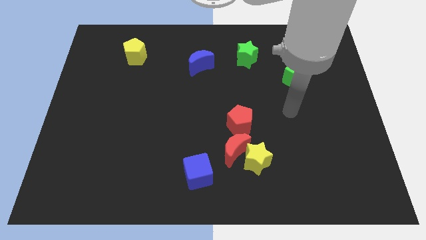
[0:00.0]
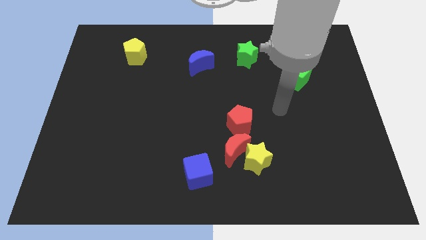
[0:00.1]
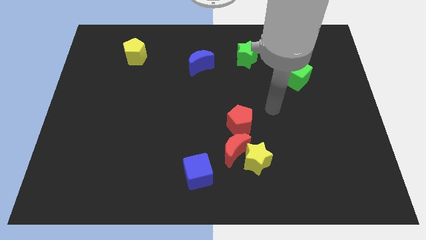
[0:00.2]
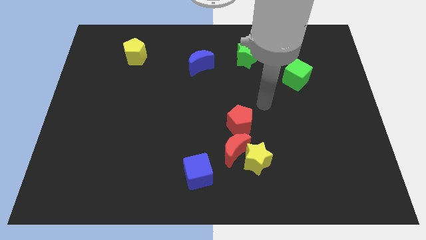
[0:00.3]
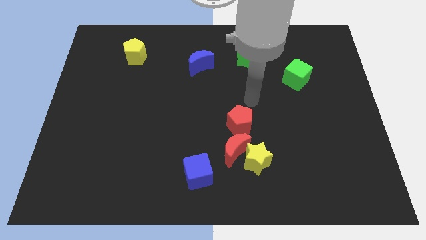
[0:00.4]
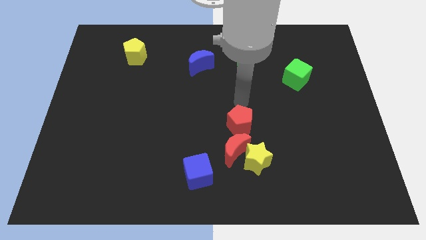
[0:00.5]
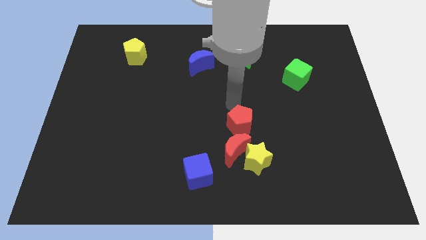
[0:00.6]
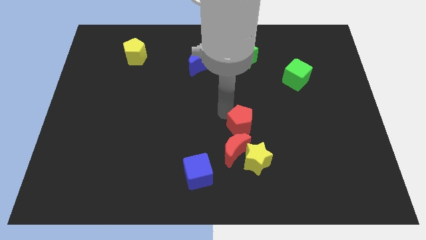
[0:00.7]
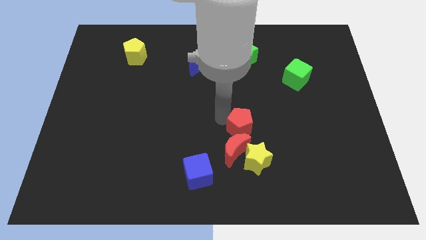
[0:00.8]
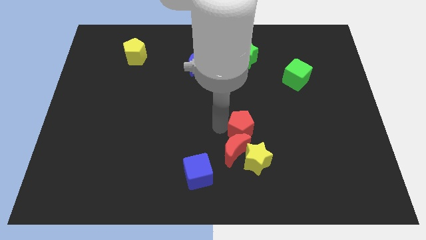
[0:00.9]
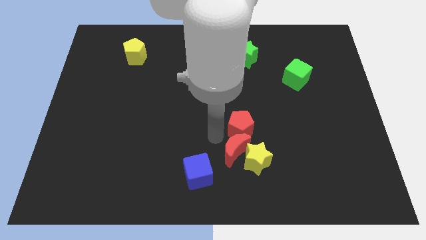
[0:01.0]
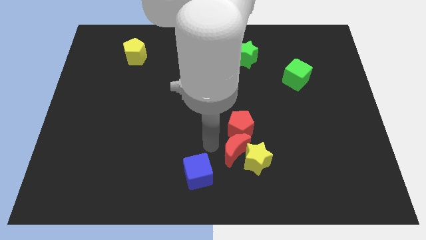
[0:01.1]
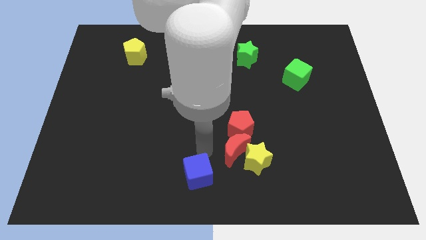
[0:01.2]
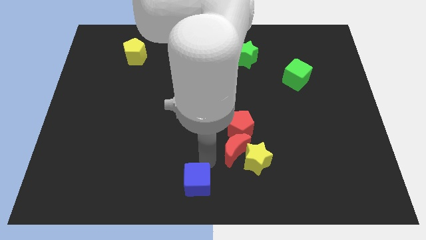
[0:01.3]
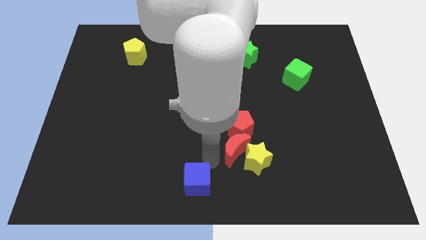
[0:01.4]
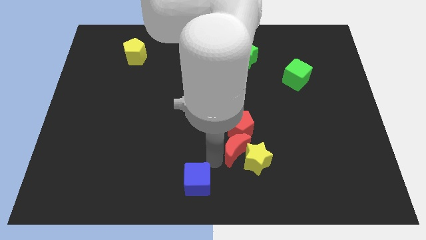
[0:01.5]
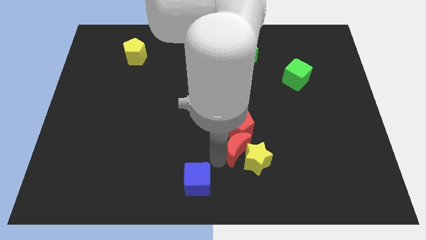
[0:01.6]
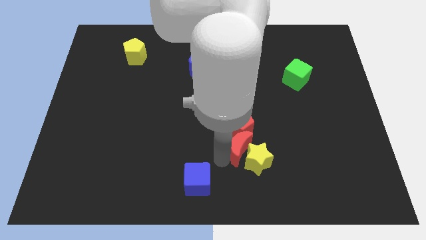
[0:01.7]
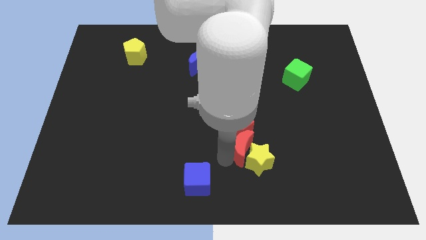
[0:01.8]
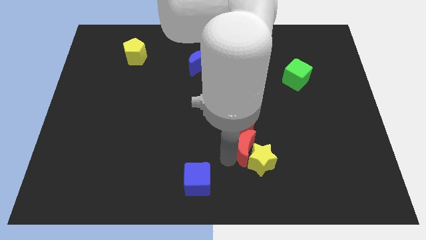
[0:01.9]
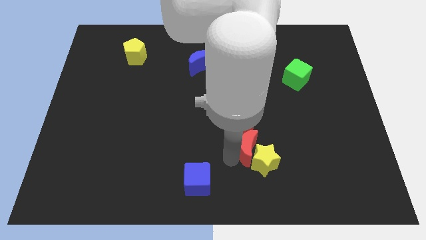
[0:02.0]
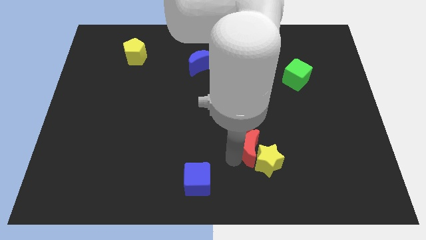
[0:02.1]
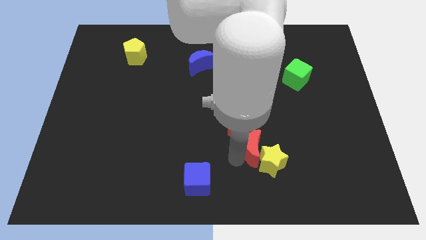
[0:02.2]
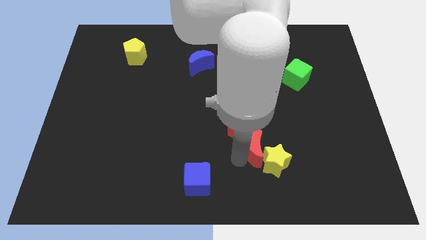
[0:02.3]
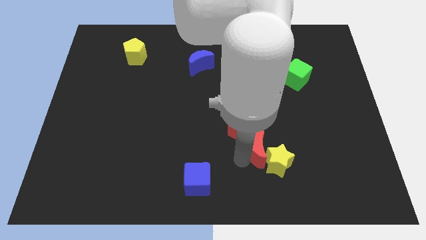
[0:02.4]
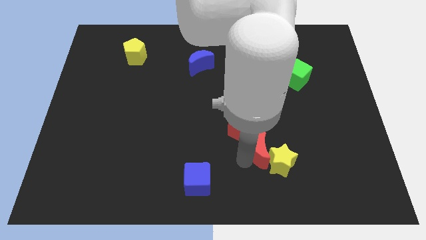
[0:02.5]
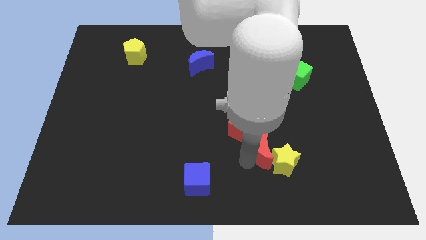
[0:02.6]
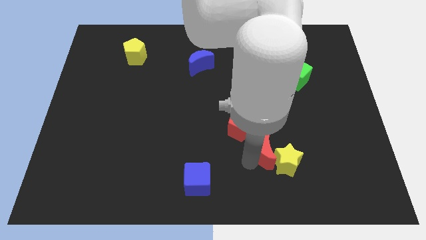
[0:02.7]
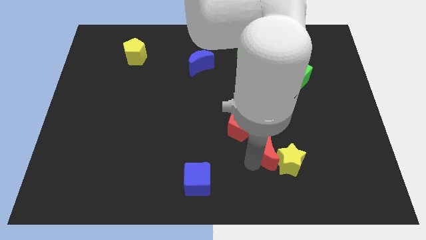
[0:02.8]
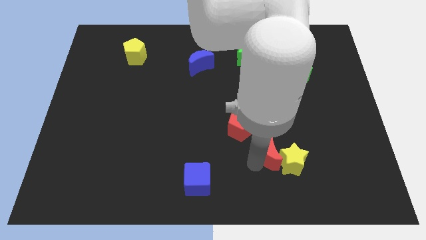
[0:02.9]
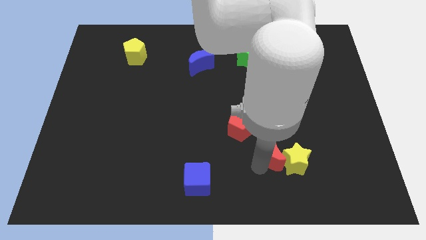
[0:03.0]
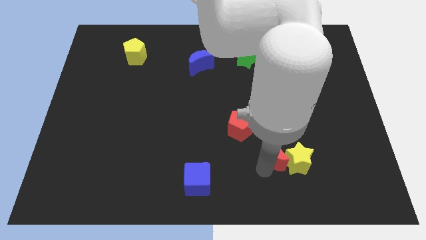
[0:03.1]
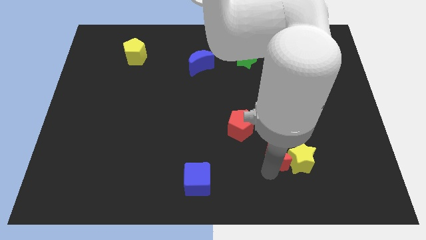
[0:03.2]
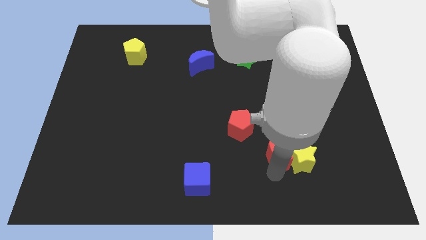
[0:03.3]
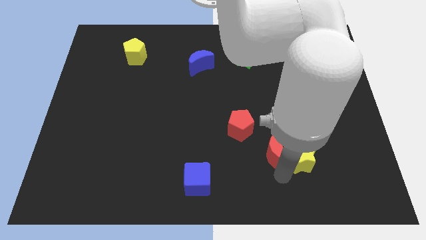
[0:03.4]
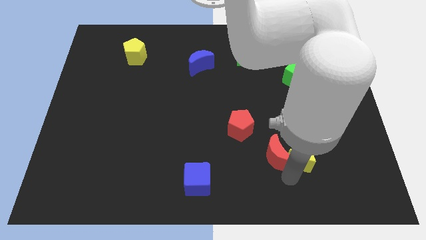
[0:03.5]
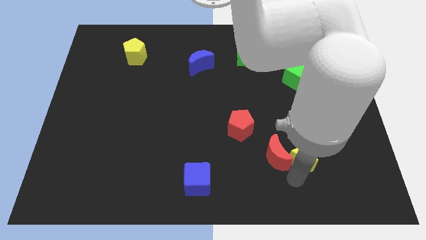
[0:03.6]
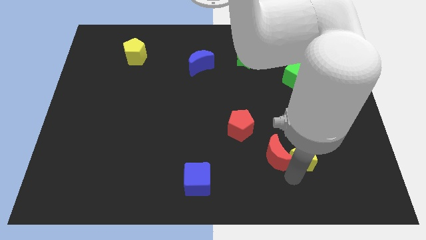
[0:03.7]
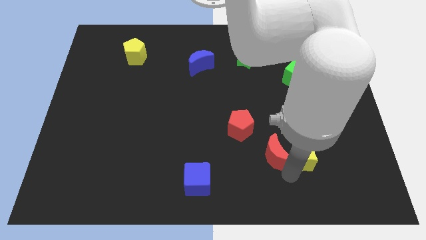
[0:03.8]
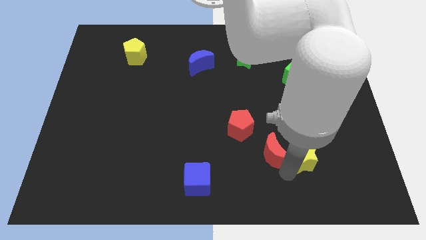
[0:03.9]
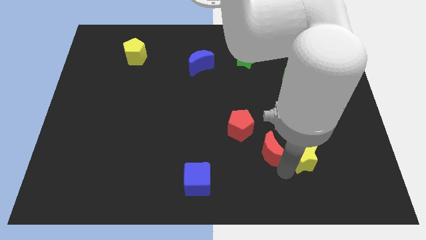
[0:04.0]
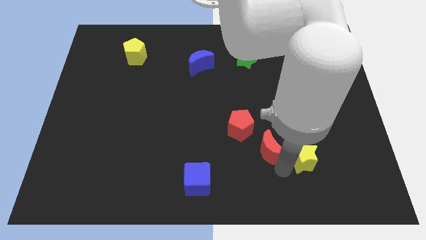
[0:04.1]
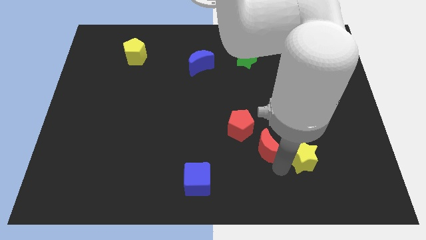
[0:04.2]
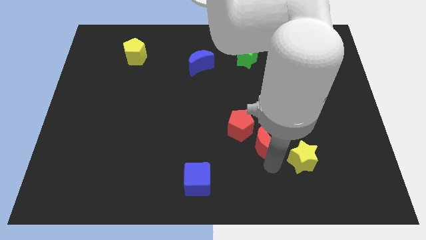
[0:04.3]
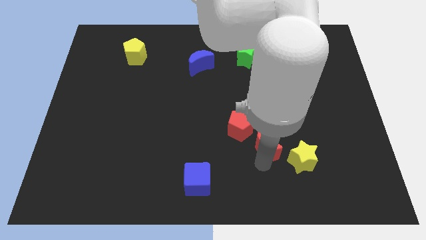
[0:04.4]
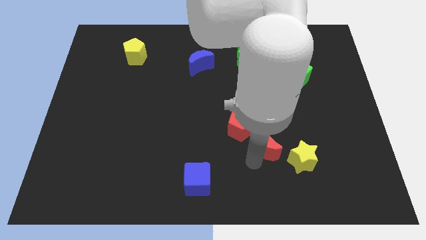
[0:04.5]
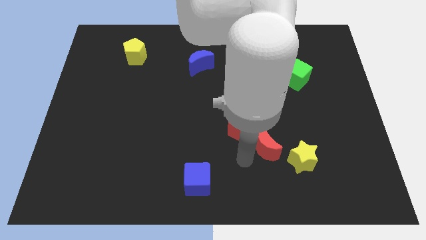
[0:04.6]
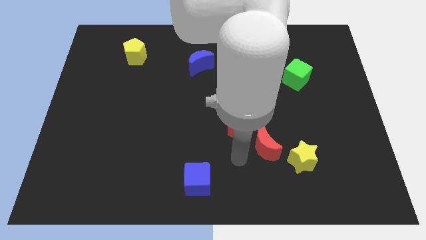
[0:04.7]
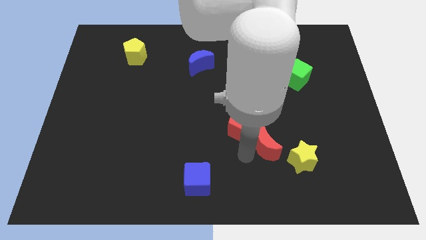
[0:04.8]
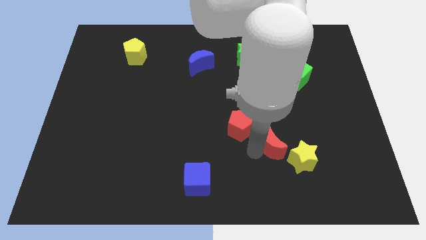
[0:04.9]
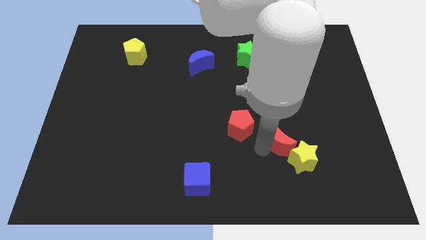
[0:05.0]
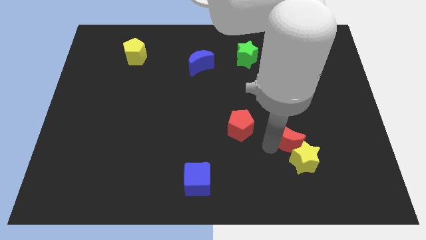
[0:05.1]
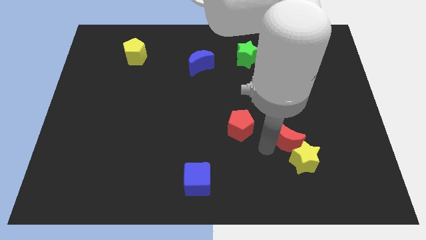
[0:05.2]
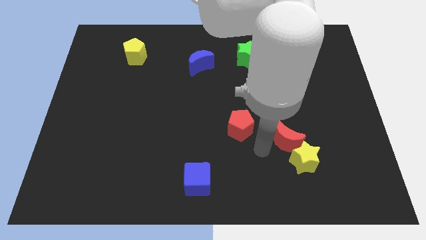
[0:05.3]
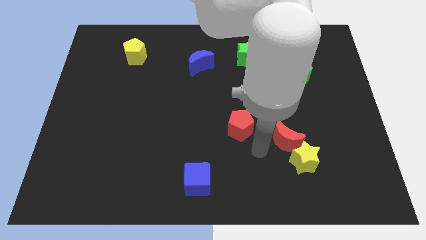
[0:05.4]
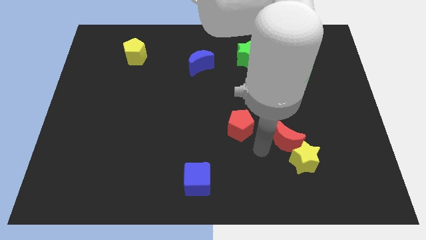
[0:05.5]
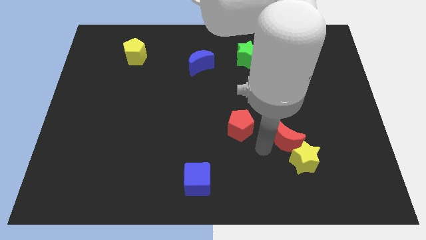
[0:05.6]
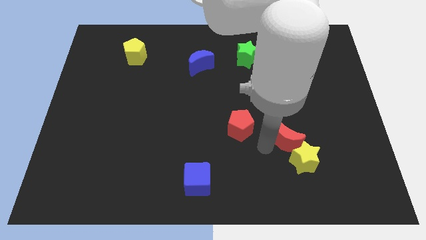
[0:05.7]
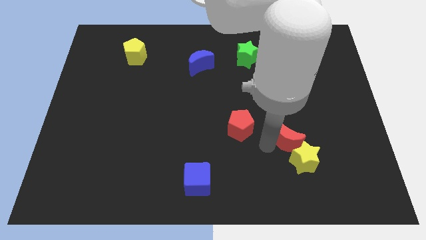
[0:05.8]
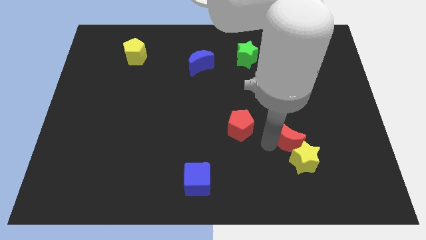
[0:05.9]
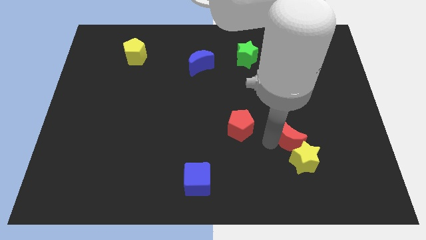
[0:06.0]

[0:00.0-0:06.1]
move the red moon away from the yellow star, red pentagon, and blue cube

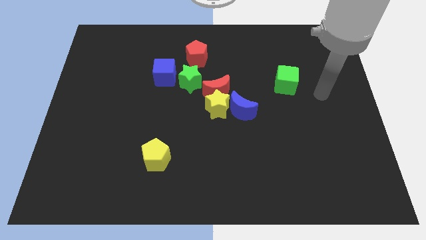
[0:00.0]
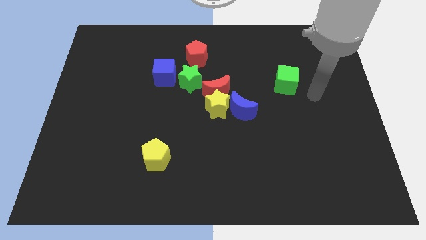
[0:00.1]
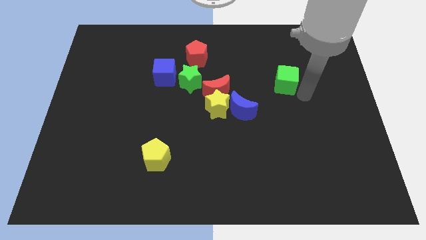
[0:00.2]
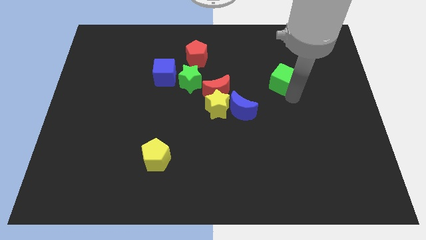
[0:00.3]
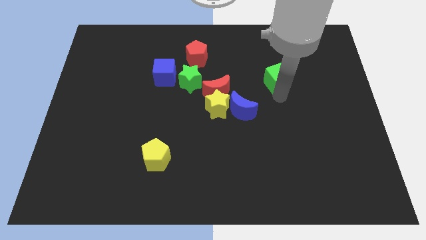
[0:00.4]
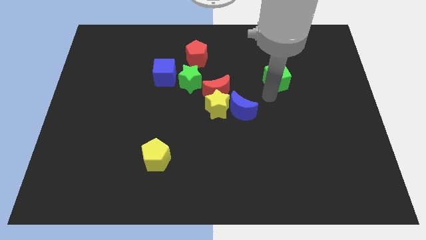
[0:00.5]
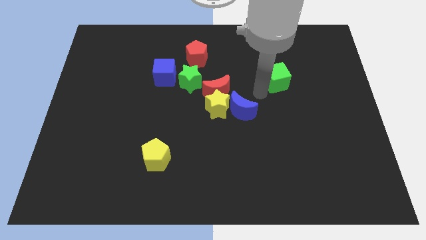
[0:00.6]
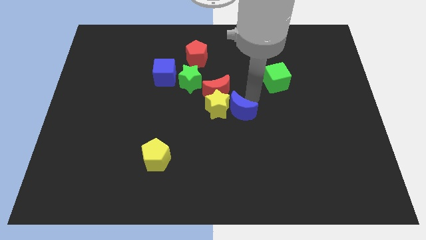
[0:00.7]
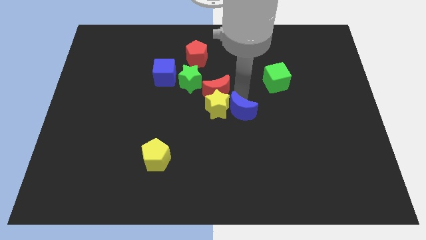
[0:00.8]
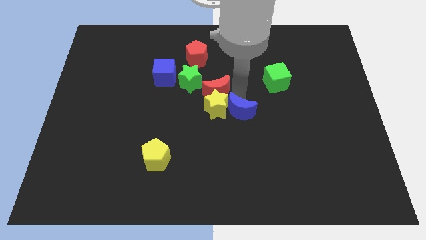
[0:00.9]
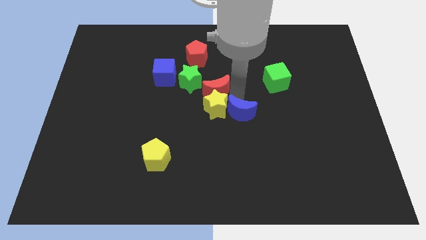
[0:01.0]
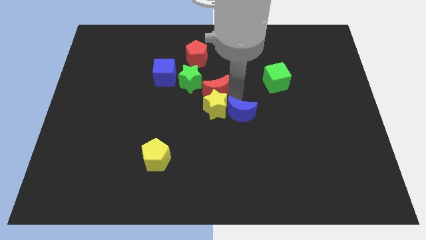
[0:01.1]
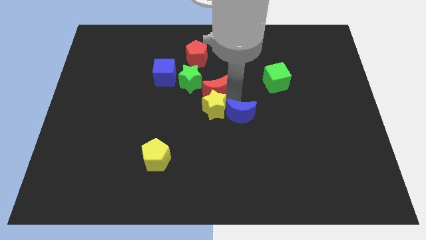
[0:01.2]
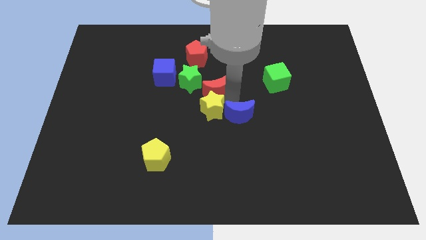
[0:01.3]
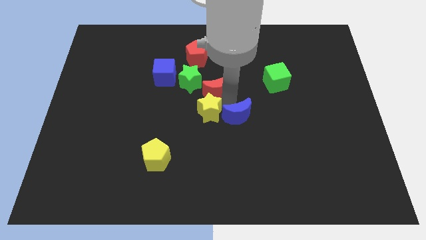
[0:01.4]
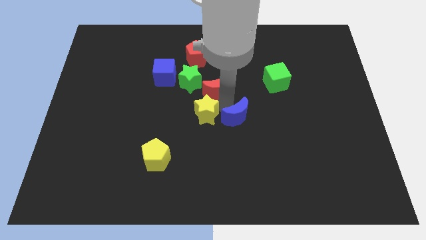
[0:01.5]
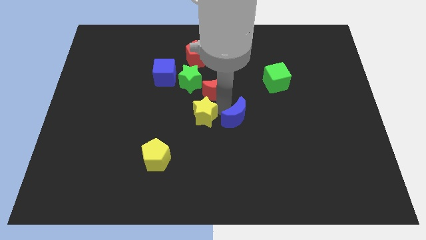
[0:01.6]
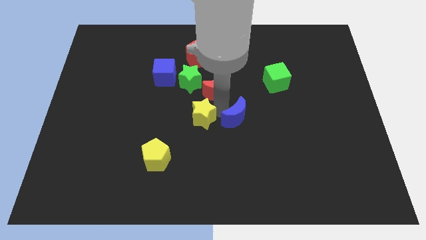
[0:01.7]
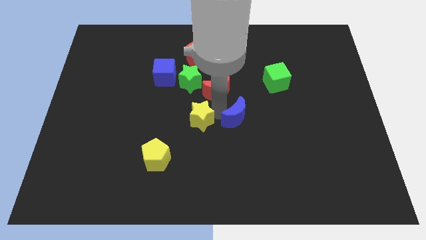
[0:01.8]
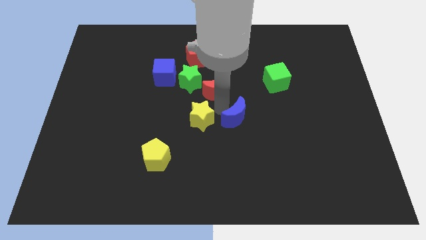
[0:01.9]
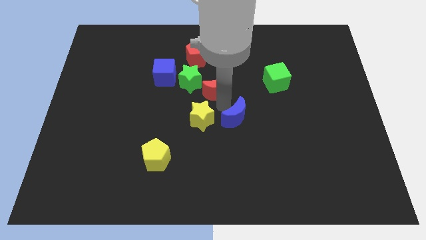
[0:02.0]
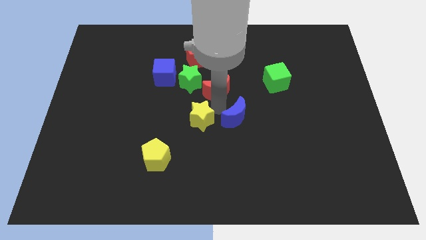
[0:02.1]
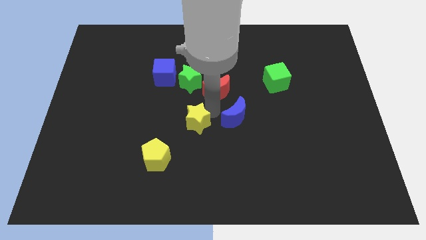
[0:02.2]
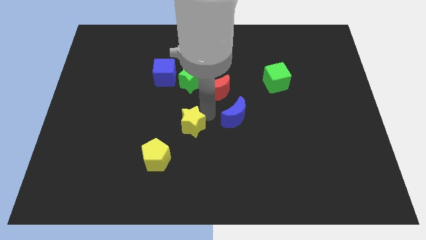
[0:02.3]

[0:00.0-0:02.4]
pull the yellow star apart from the red moon and blue moon

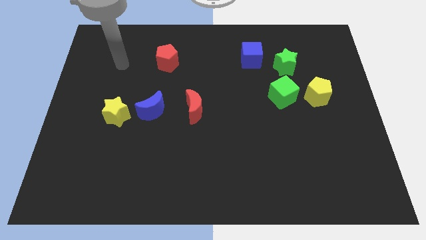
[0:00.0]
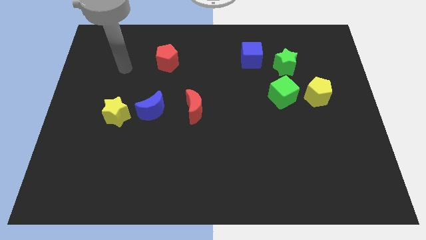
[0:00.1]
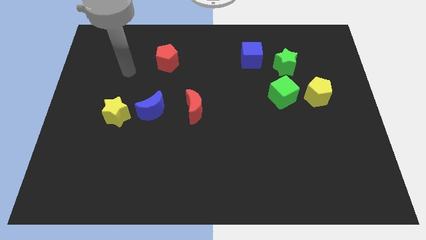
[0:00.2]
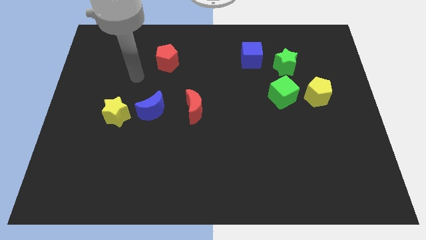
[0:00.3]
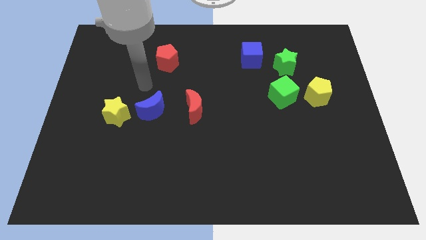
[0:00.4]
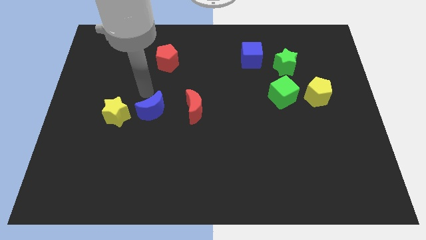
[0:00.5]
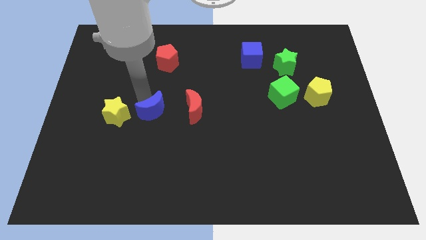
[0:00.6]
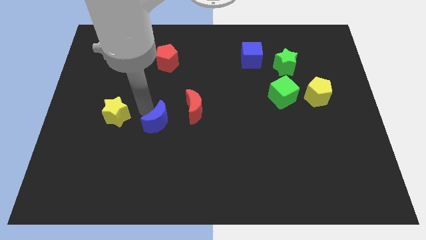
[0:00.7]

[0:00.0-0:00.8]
pull the yellow star apart from the blue moon

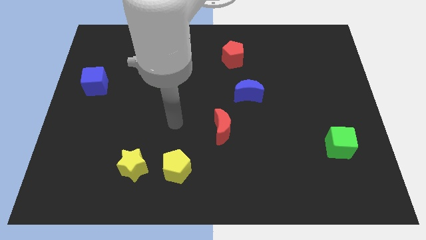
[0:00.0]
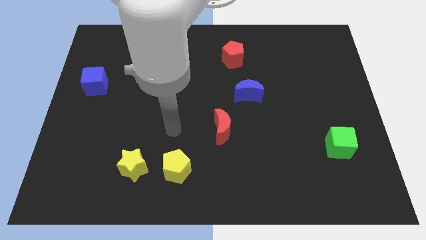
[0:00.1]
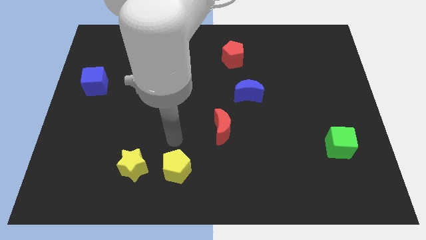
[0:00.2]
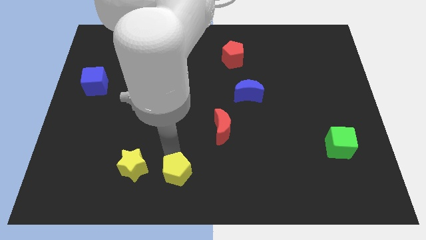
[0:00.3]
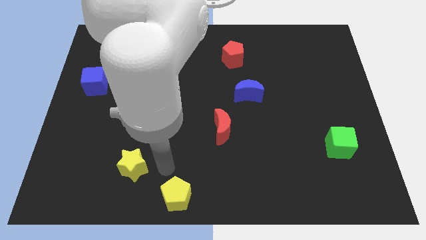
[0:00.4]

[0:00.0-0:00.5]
separate the yellow star from the yellow pentagon
